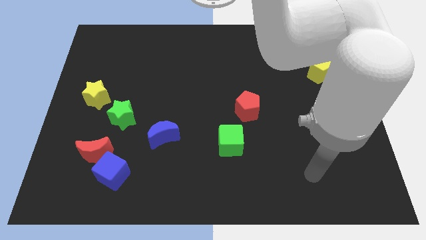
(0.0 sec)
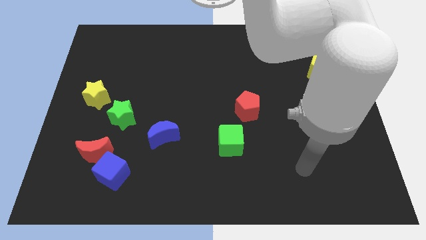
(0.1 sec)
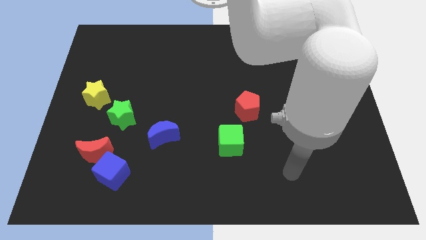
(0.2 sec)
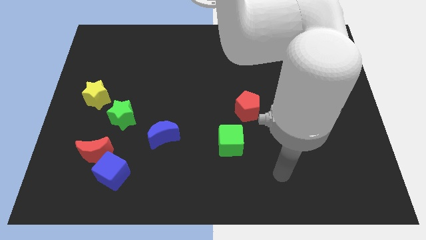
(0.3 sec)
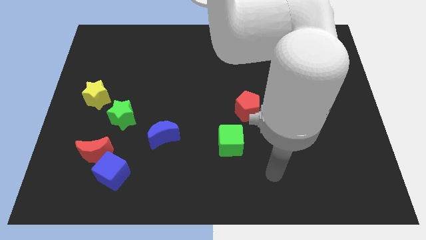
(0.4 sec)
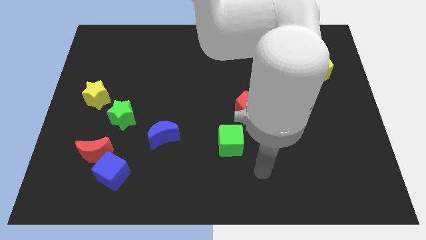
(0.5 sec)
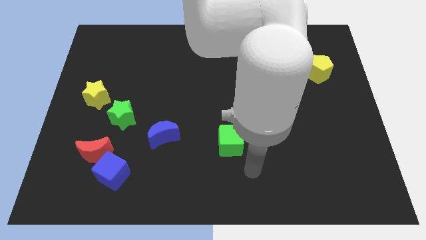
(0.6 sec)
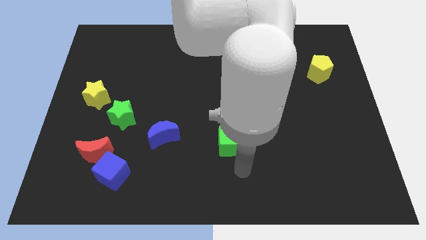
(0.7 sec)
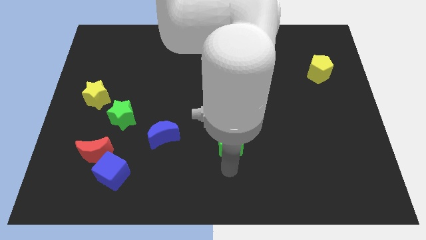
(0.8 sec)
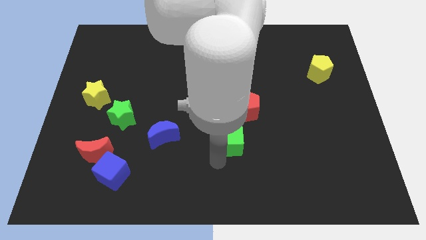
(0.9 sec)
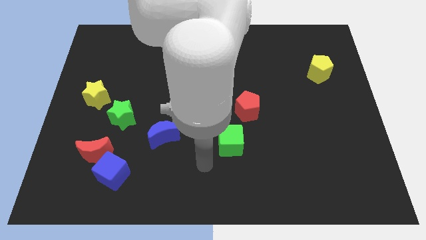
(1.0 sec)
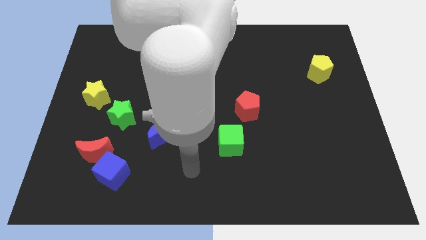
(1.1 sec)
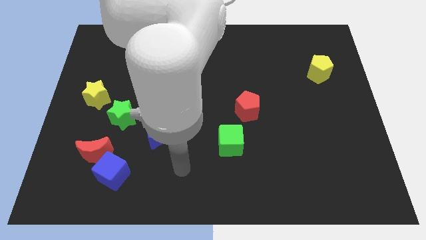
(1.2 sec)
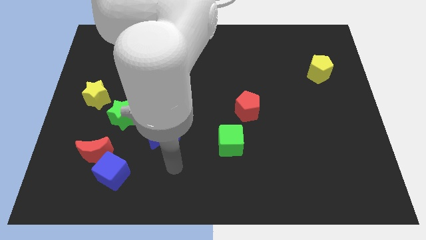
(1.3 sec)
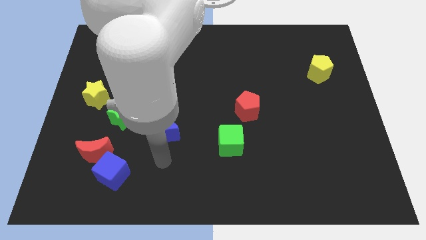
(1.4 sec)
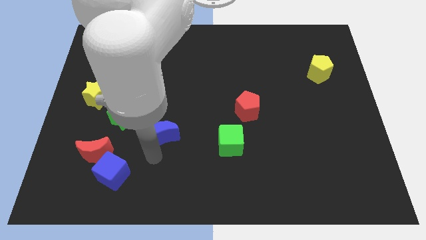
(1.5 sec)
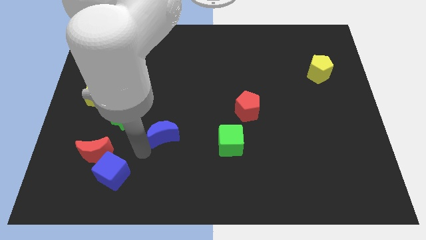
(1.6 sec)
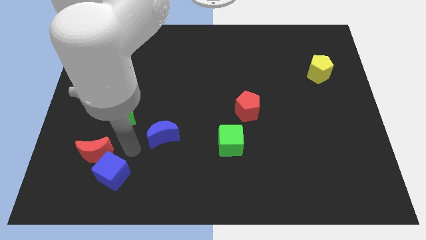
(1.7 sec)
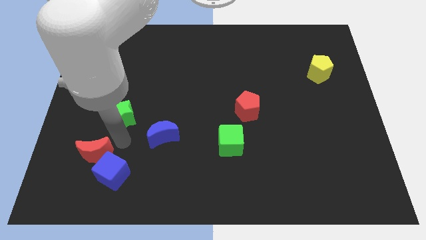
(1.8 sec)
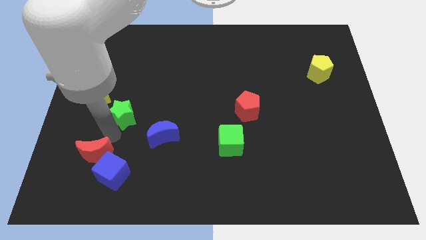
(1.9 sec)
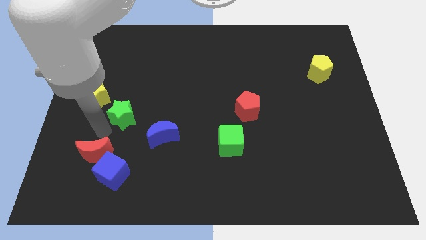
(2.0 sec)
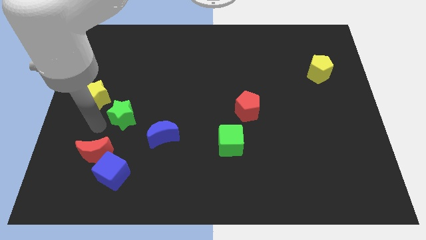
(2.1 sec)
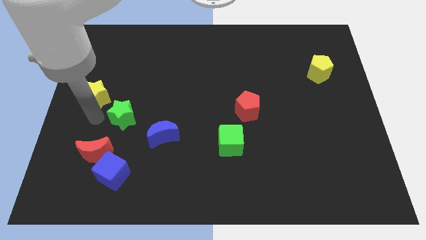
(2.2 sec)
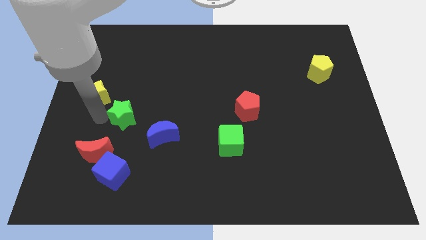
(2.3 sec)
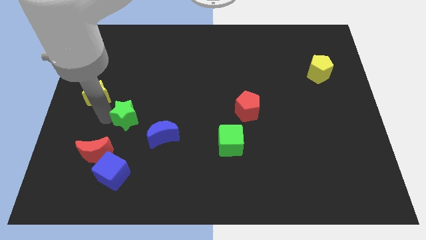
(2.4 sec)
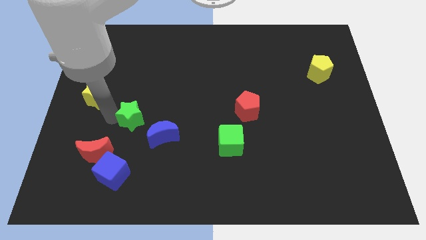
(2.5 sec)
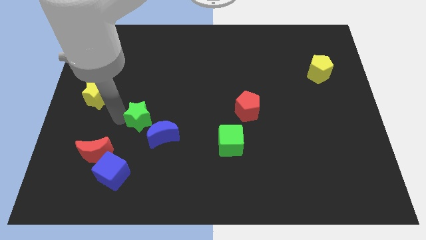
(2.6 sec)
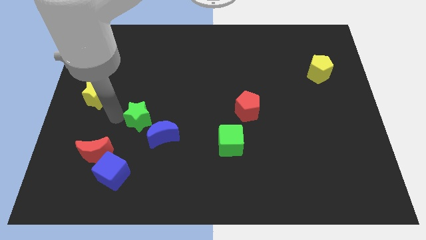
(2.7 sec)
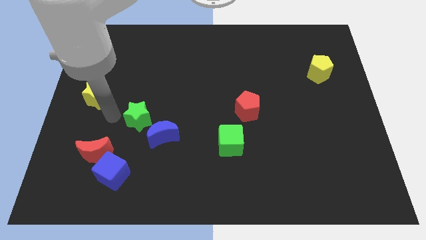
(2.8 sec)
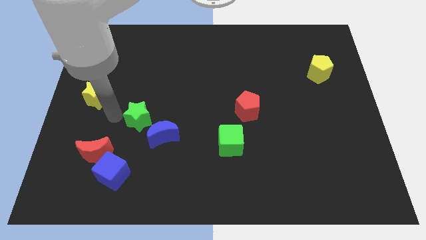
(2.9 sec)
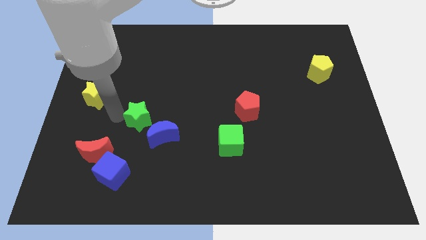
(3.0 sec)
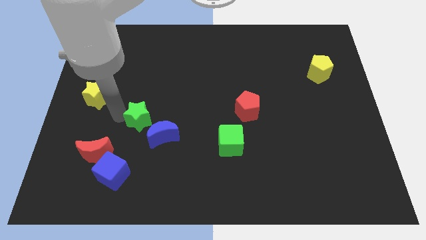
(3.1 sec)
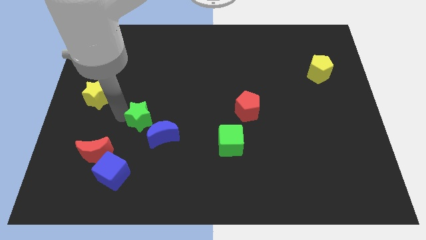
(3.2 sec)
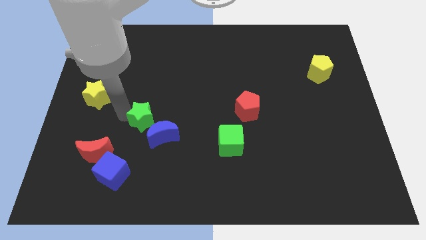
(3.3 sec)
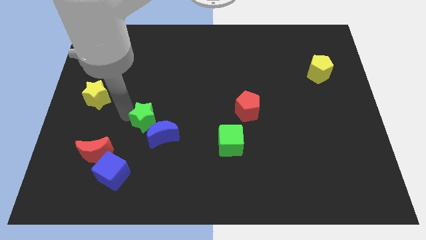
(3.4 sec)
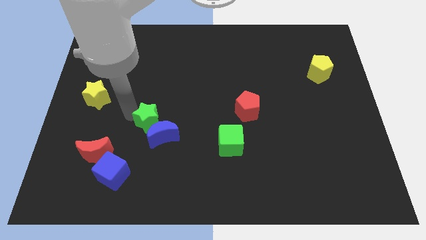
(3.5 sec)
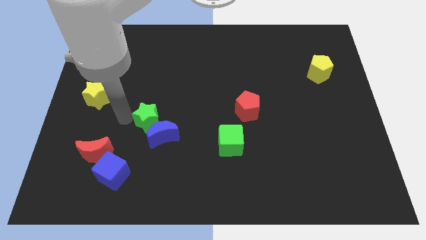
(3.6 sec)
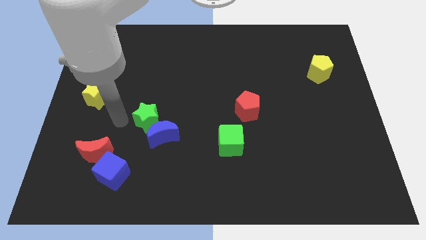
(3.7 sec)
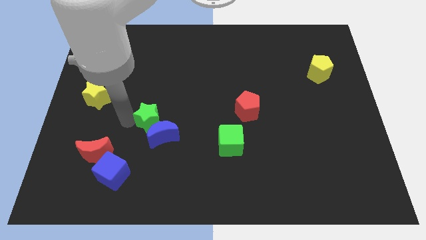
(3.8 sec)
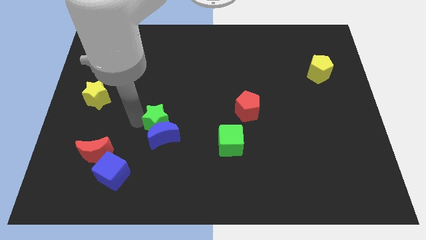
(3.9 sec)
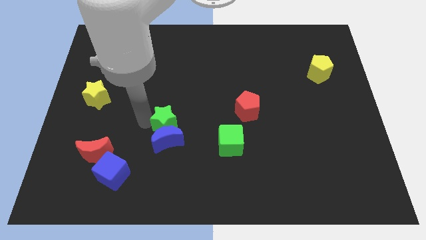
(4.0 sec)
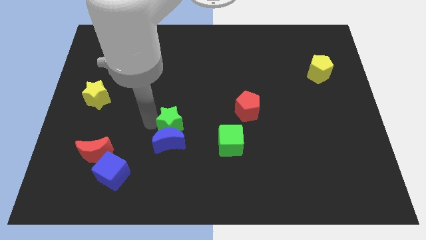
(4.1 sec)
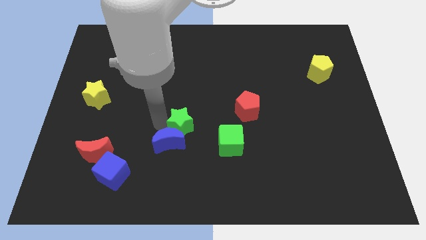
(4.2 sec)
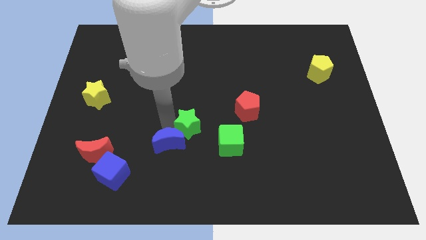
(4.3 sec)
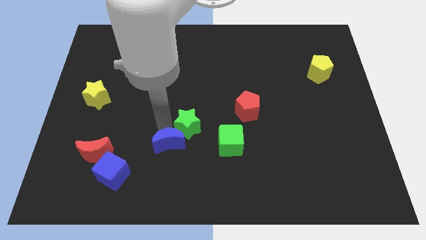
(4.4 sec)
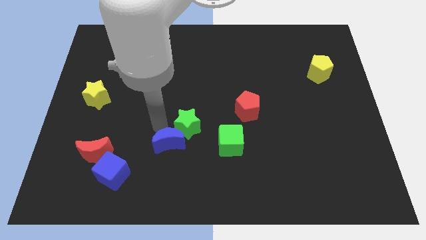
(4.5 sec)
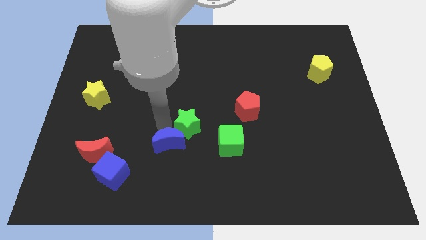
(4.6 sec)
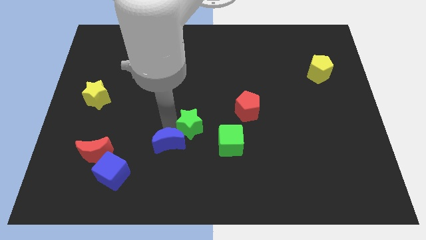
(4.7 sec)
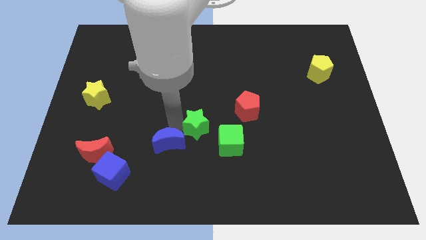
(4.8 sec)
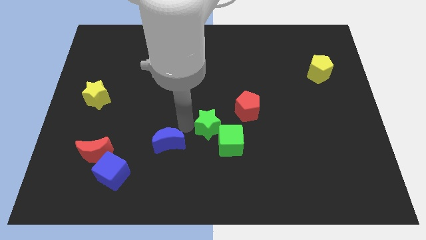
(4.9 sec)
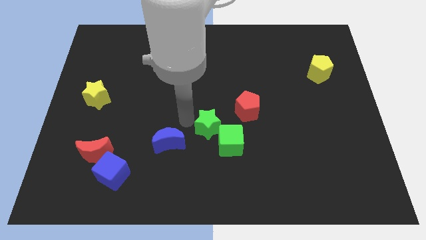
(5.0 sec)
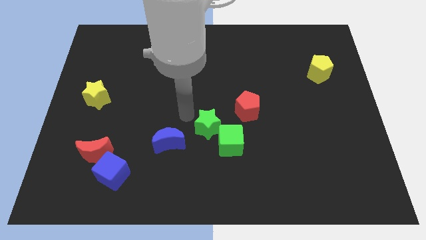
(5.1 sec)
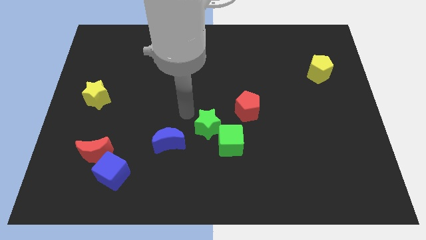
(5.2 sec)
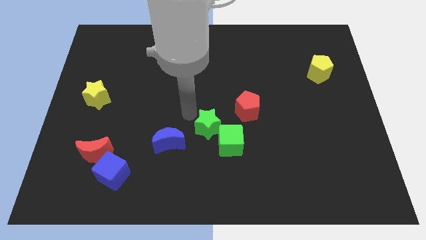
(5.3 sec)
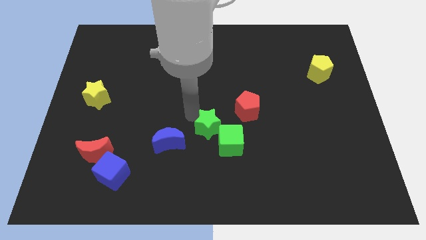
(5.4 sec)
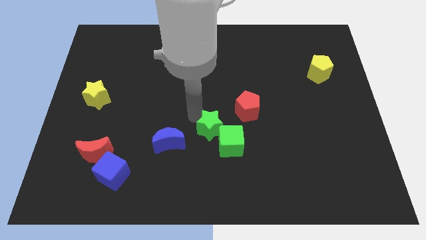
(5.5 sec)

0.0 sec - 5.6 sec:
slide the green star next to the green cube
